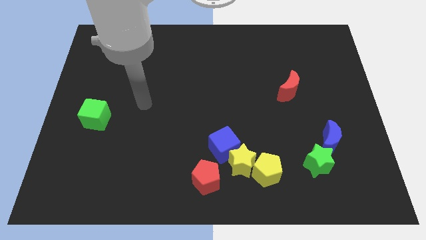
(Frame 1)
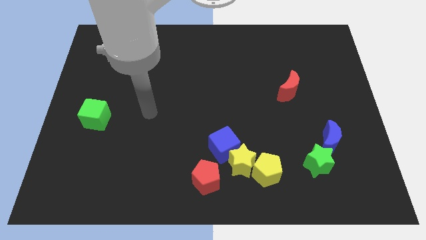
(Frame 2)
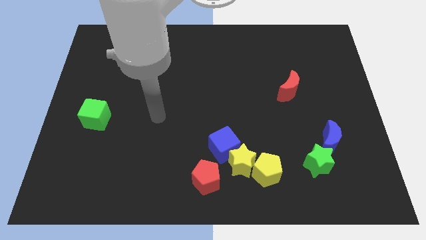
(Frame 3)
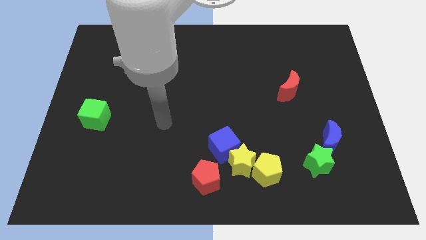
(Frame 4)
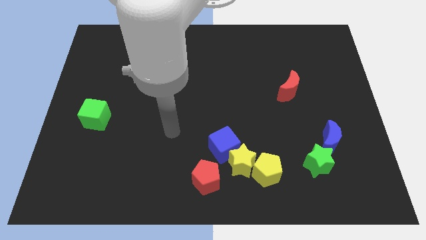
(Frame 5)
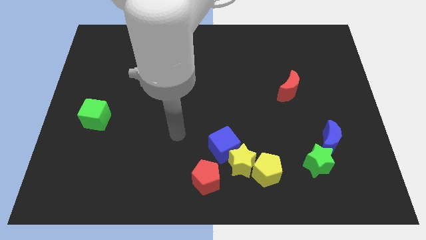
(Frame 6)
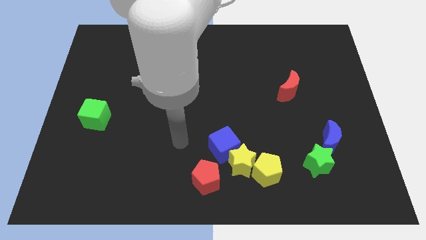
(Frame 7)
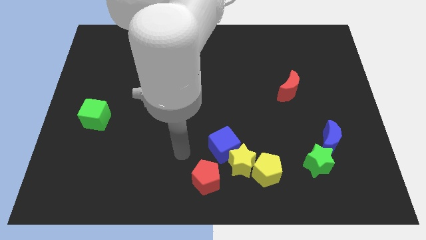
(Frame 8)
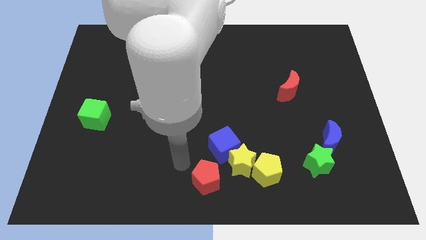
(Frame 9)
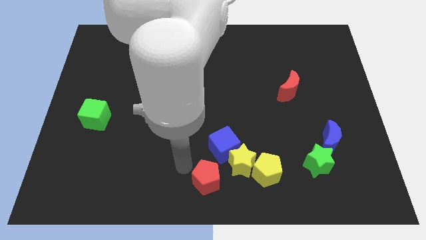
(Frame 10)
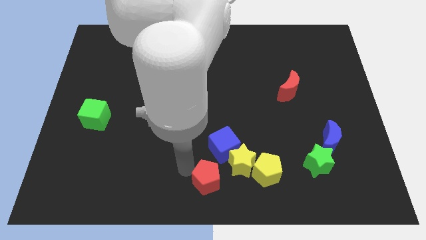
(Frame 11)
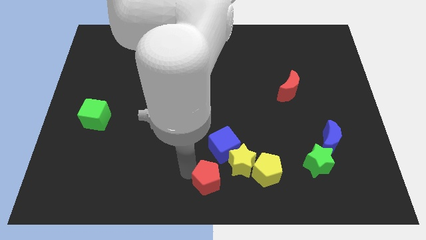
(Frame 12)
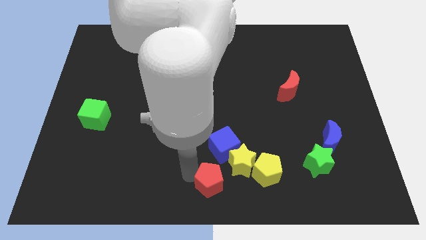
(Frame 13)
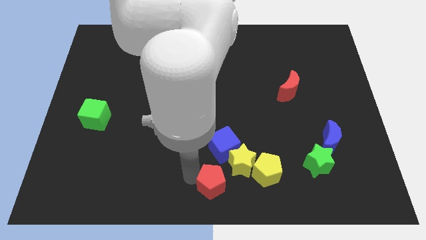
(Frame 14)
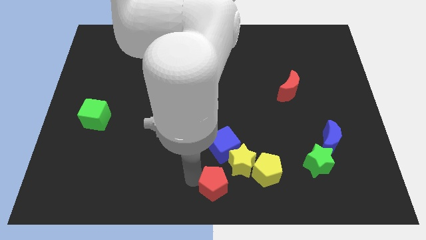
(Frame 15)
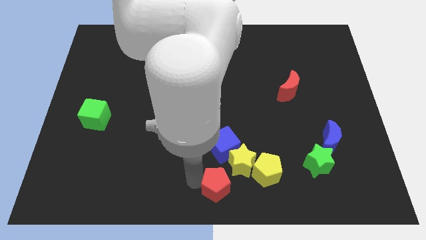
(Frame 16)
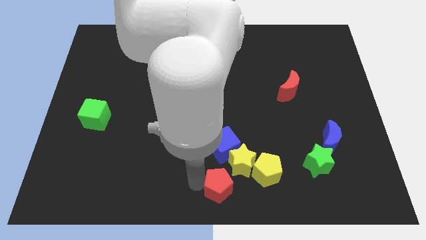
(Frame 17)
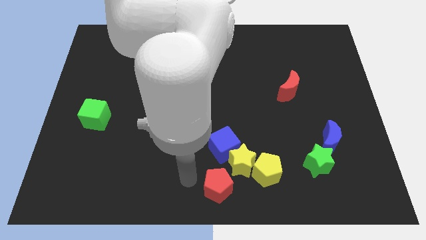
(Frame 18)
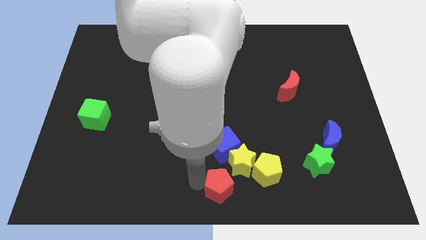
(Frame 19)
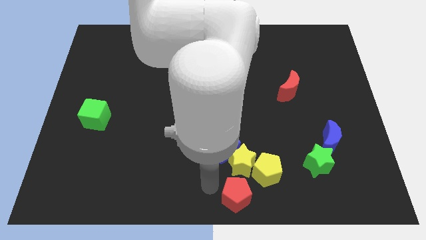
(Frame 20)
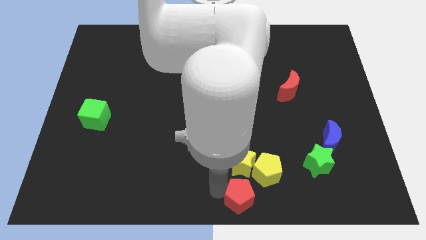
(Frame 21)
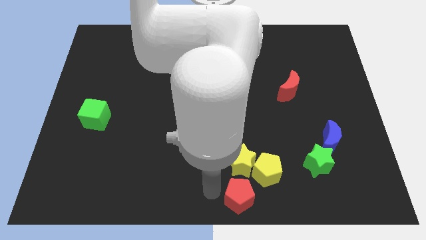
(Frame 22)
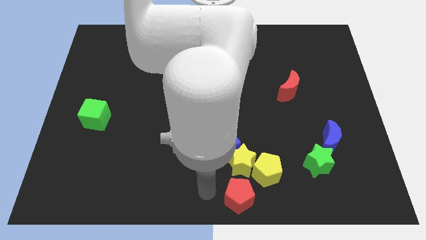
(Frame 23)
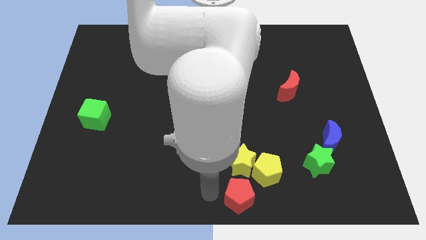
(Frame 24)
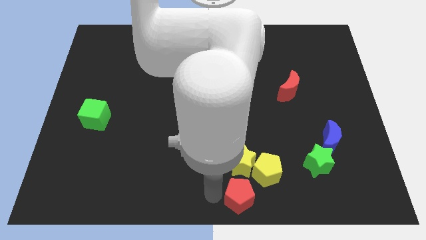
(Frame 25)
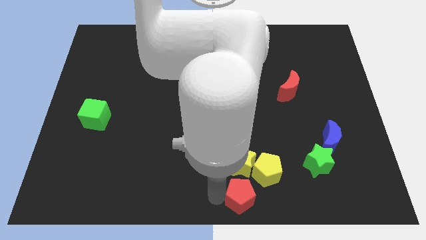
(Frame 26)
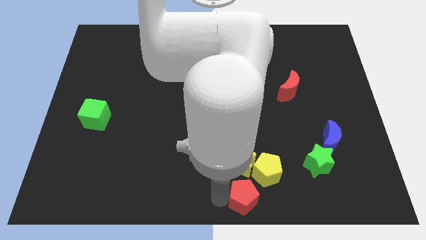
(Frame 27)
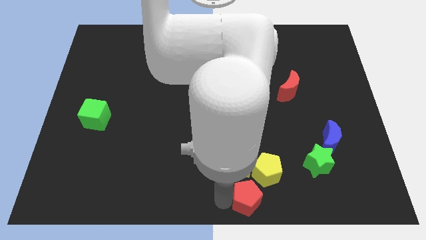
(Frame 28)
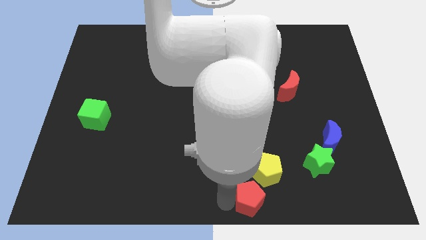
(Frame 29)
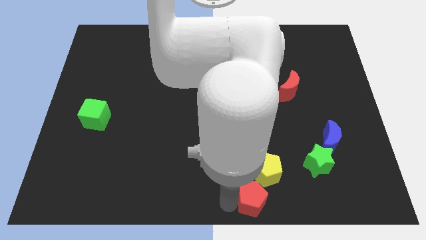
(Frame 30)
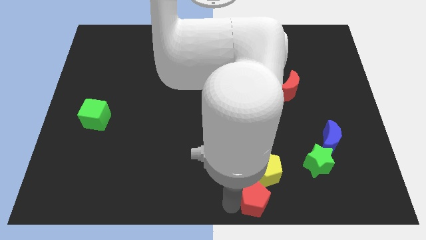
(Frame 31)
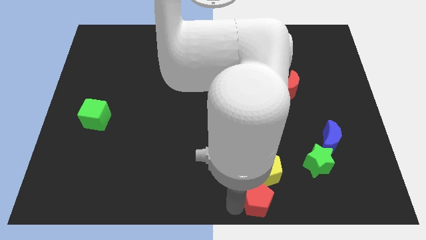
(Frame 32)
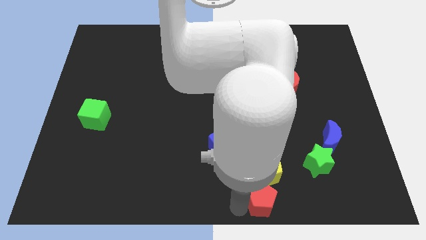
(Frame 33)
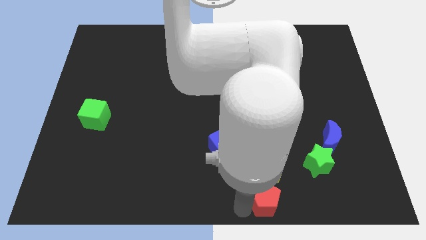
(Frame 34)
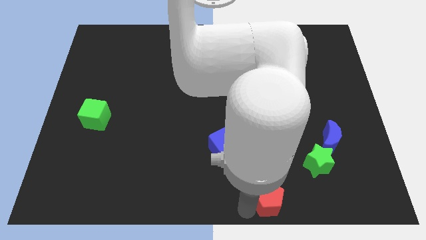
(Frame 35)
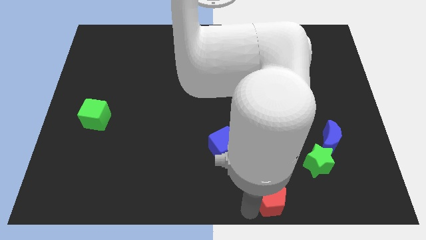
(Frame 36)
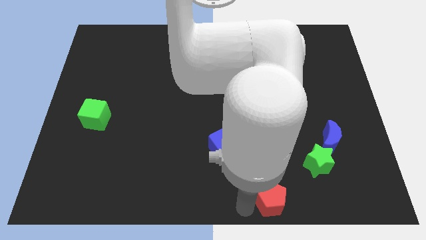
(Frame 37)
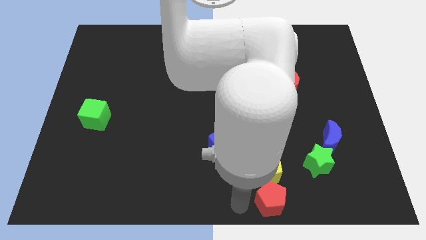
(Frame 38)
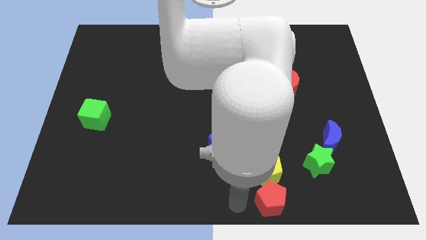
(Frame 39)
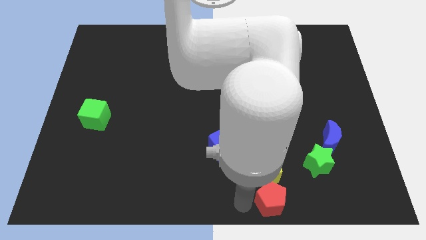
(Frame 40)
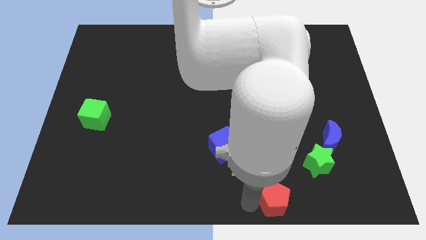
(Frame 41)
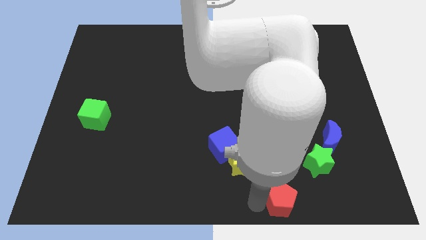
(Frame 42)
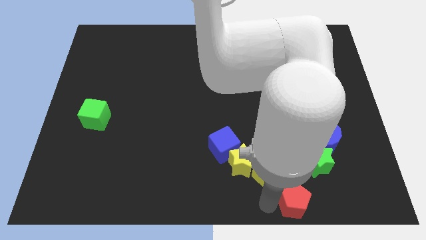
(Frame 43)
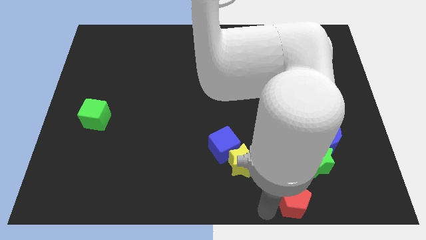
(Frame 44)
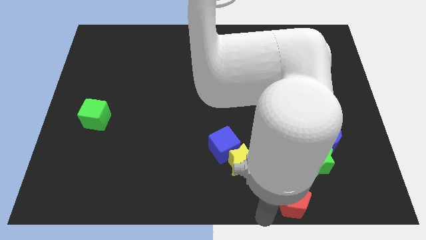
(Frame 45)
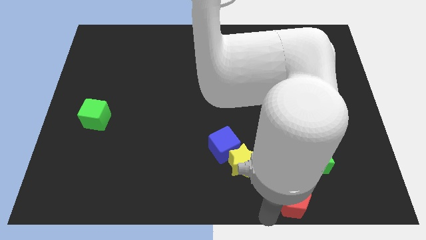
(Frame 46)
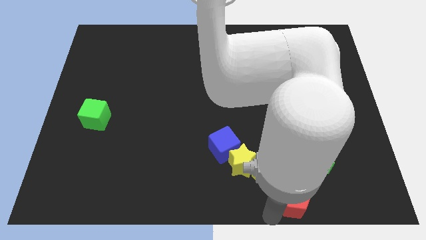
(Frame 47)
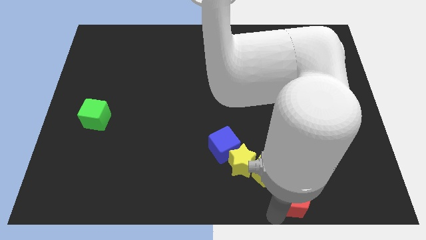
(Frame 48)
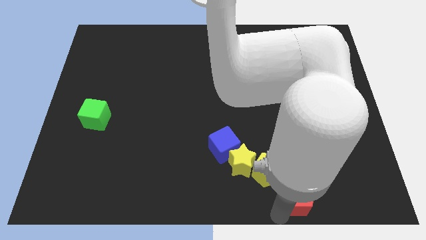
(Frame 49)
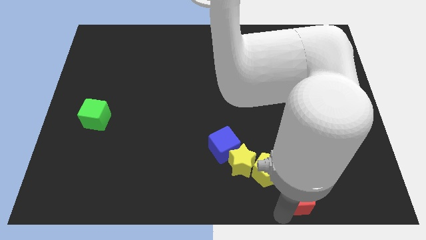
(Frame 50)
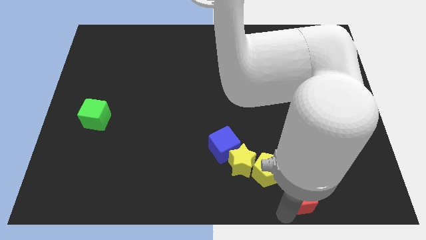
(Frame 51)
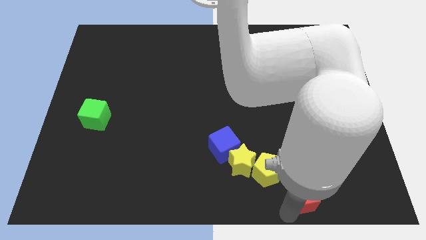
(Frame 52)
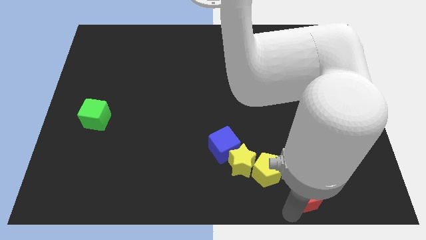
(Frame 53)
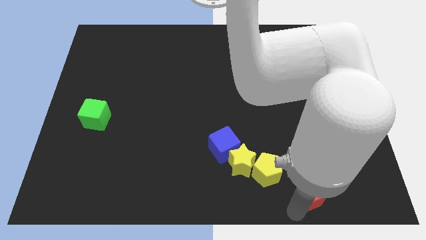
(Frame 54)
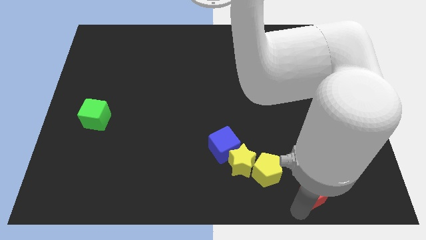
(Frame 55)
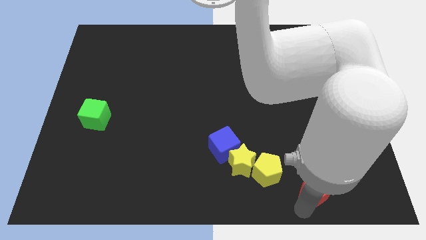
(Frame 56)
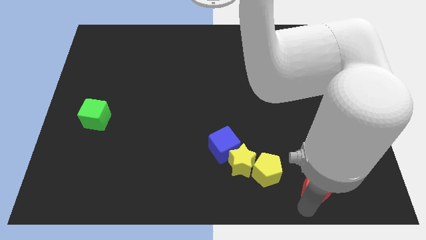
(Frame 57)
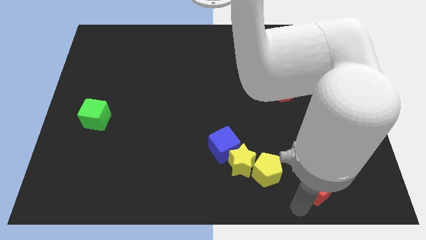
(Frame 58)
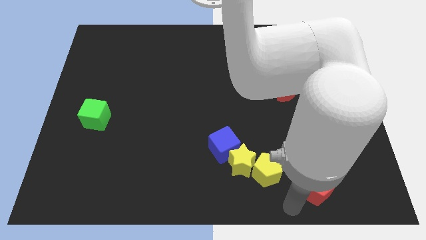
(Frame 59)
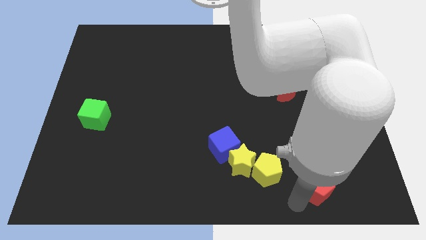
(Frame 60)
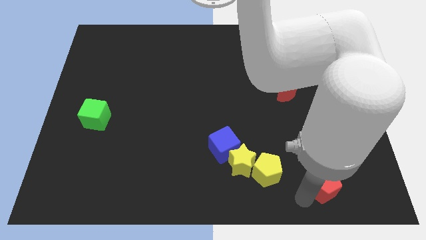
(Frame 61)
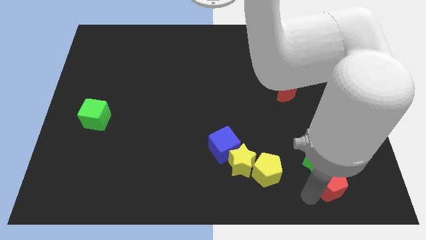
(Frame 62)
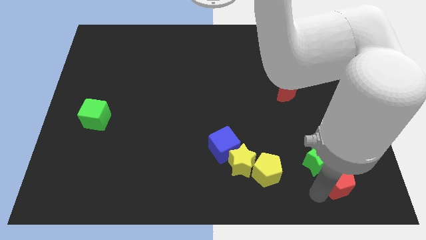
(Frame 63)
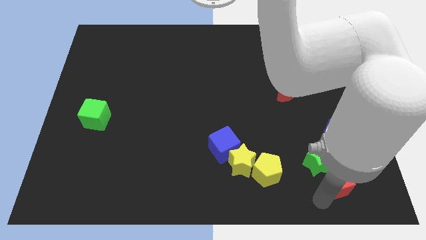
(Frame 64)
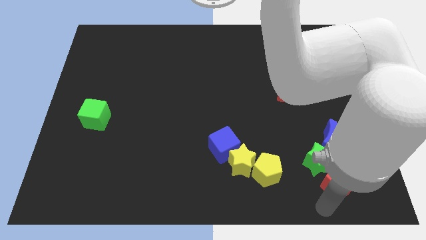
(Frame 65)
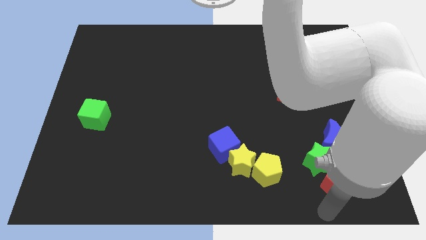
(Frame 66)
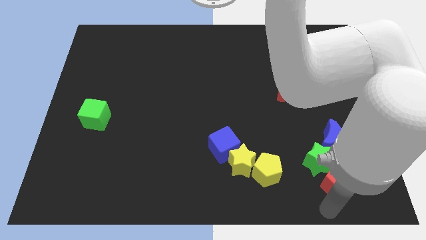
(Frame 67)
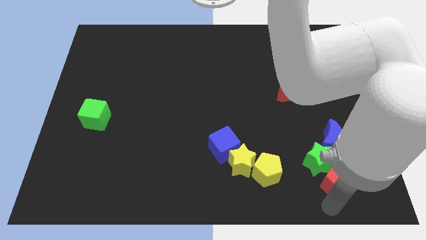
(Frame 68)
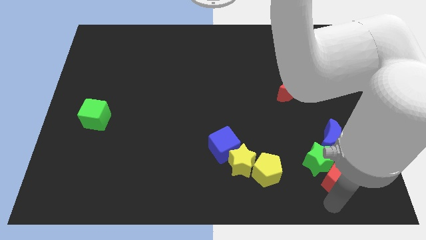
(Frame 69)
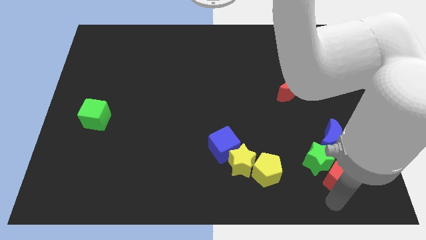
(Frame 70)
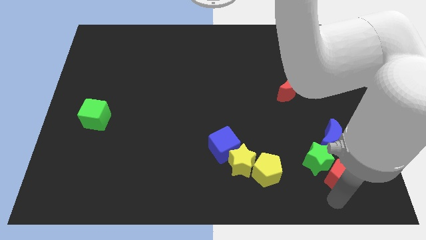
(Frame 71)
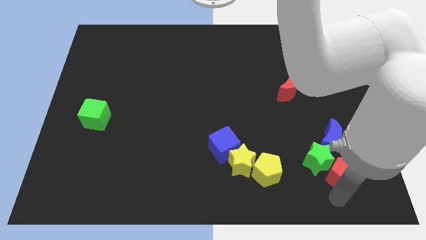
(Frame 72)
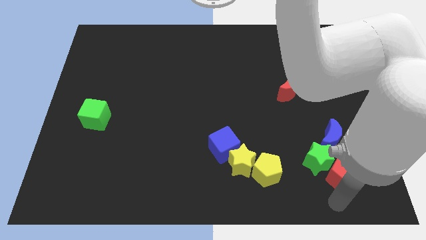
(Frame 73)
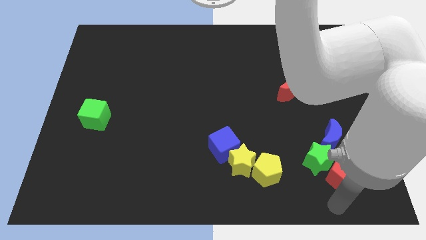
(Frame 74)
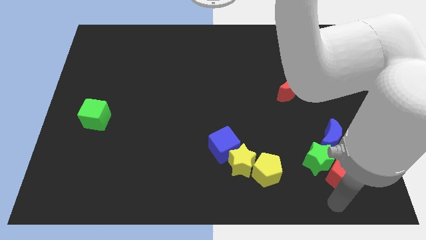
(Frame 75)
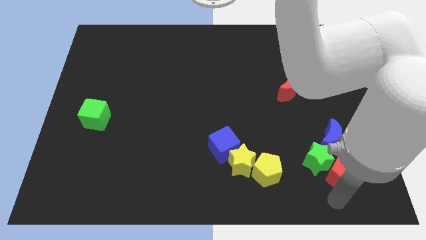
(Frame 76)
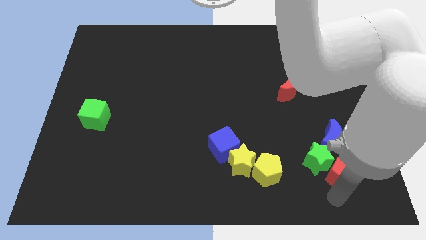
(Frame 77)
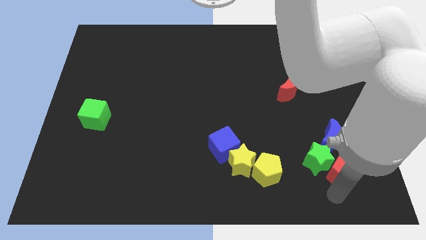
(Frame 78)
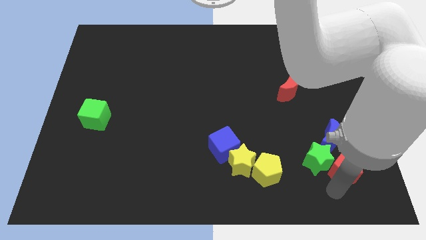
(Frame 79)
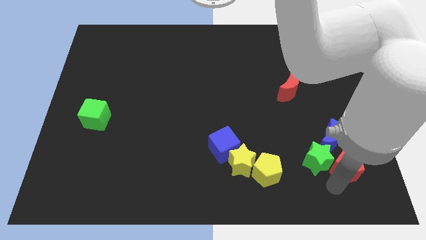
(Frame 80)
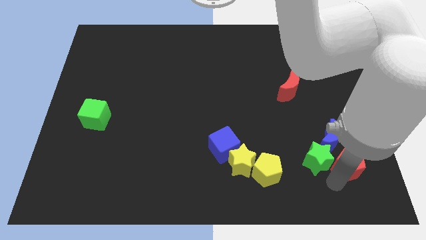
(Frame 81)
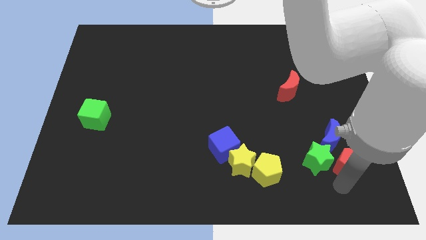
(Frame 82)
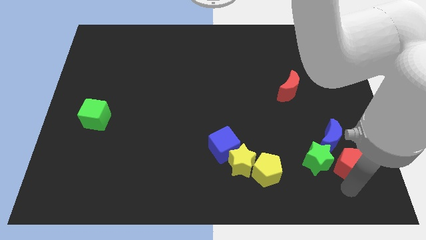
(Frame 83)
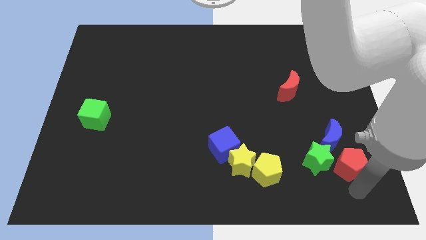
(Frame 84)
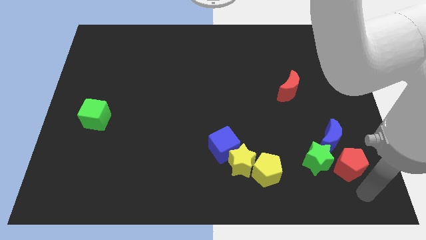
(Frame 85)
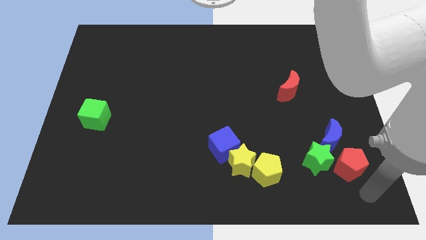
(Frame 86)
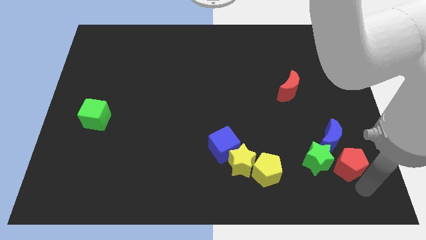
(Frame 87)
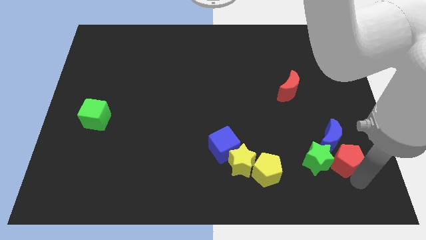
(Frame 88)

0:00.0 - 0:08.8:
push the red pentagon to the blue moon
